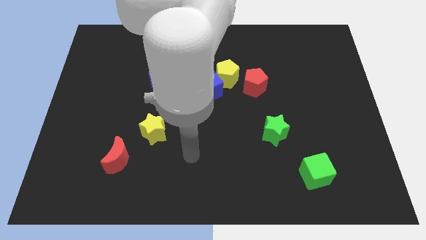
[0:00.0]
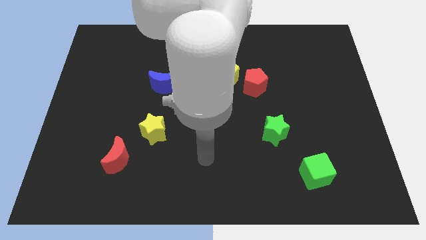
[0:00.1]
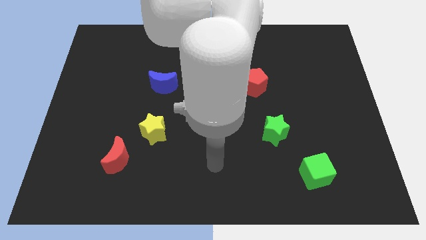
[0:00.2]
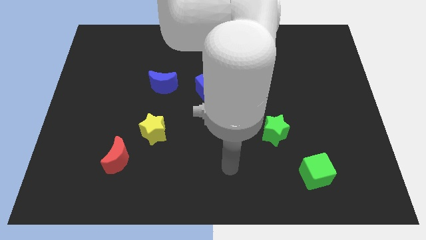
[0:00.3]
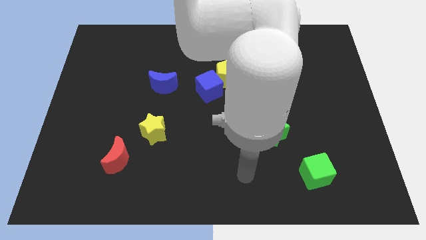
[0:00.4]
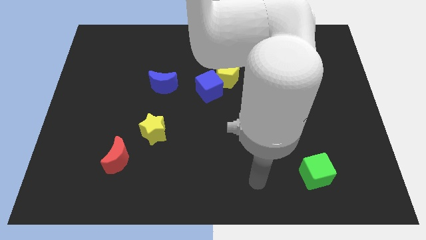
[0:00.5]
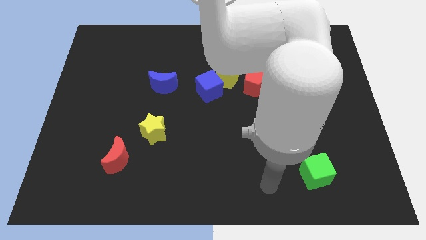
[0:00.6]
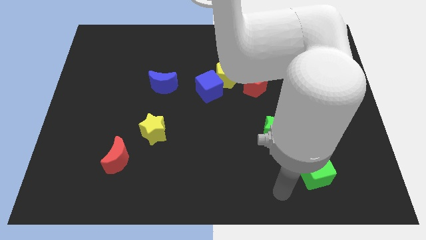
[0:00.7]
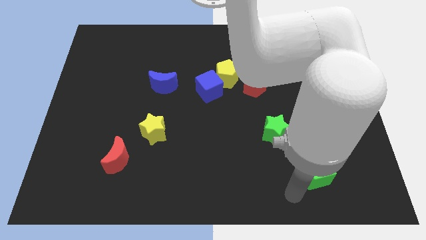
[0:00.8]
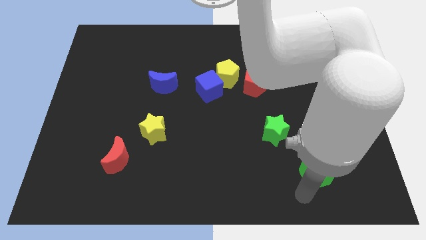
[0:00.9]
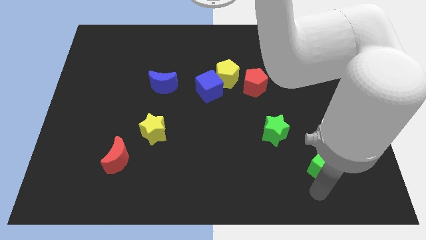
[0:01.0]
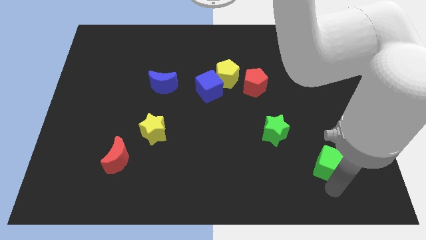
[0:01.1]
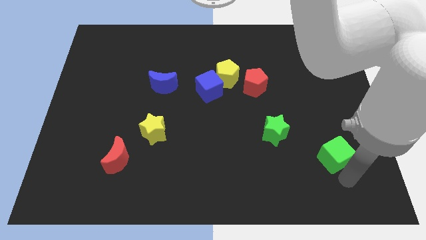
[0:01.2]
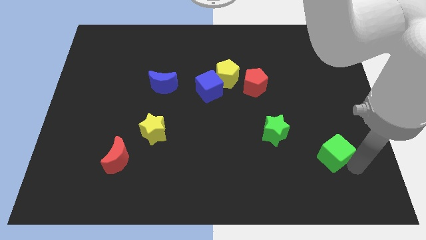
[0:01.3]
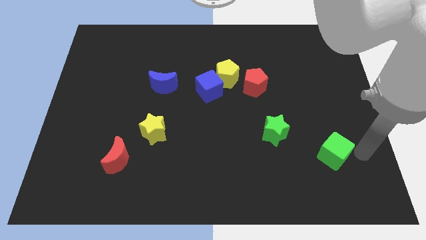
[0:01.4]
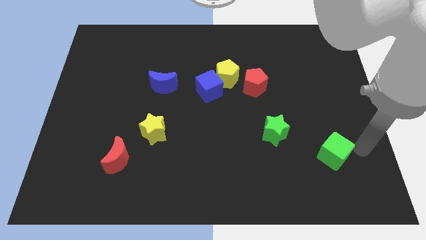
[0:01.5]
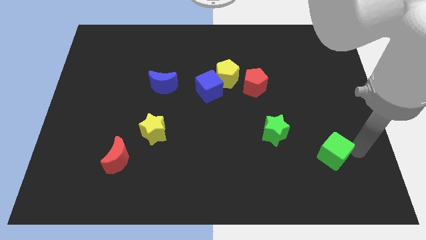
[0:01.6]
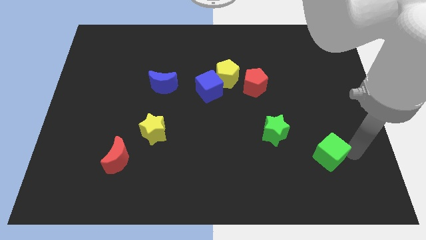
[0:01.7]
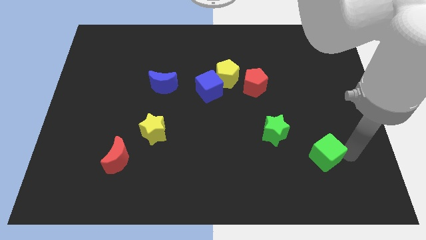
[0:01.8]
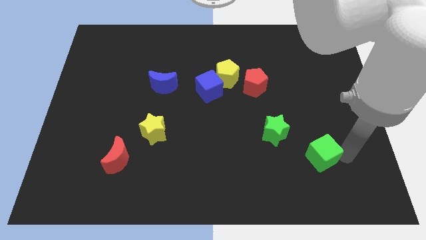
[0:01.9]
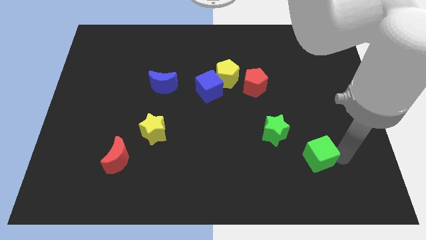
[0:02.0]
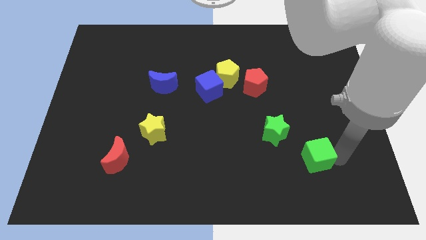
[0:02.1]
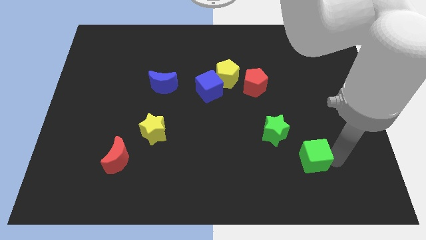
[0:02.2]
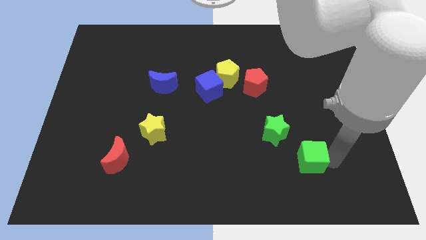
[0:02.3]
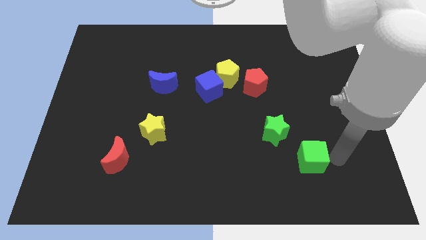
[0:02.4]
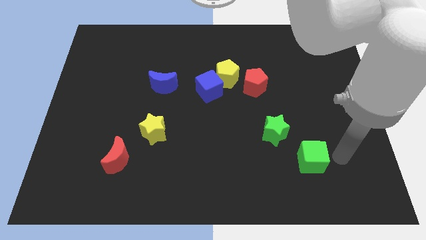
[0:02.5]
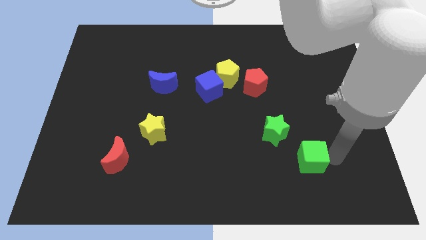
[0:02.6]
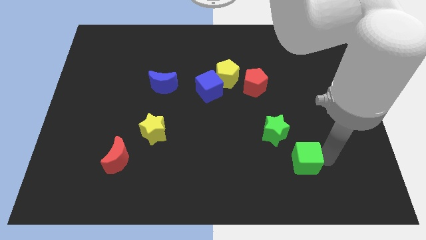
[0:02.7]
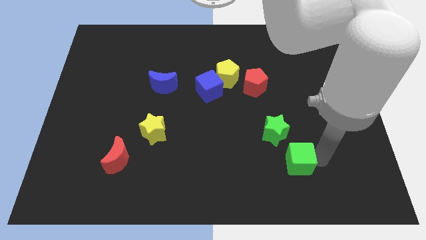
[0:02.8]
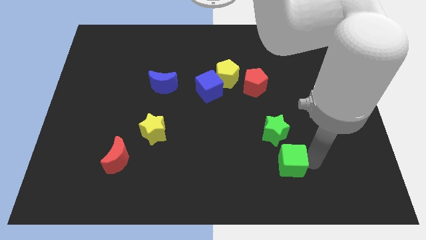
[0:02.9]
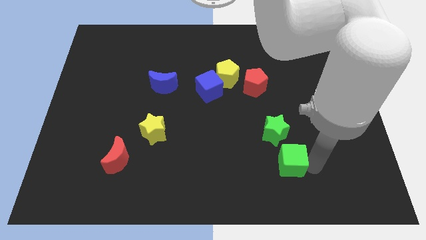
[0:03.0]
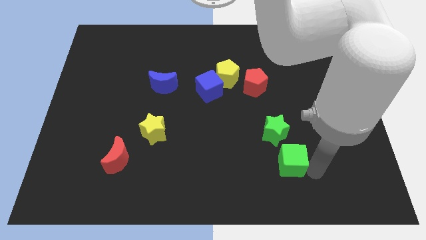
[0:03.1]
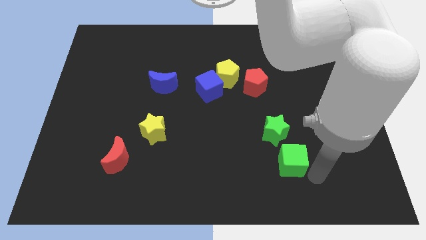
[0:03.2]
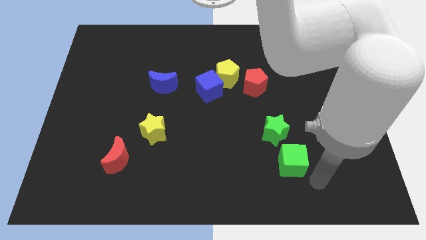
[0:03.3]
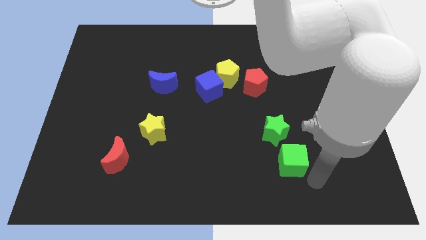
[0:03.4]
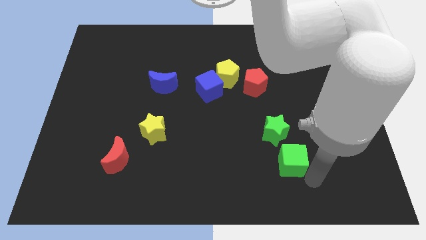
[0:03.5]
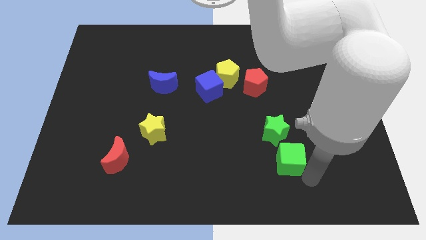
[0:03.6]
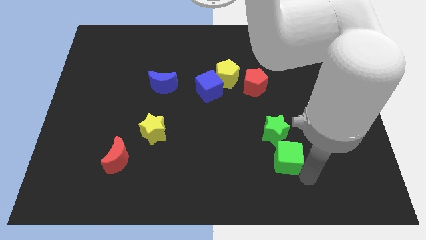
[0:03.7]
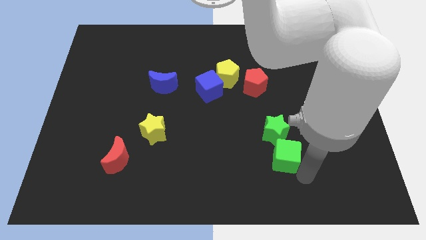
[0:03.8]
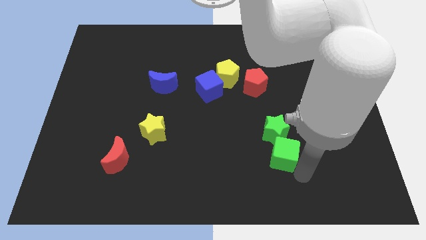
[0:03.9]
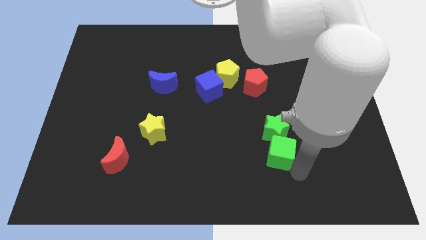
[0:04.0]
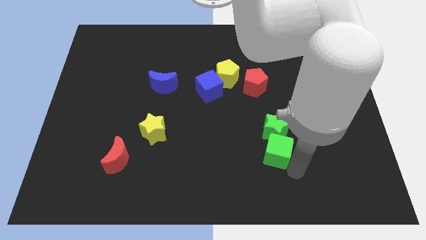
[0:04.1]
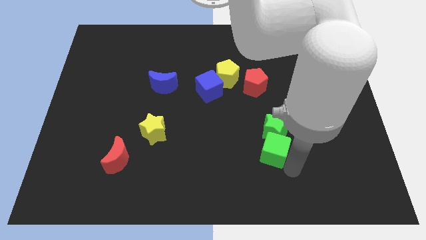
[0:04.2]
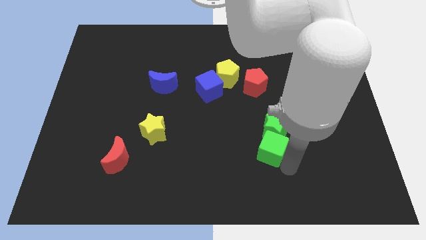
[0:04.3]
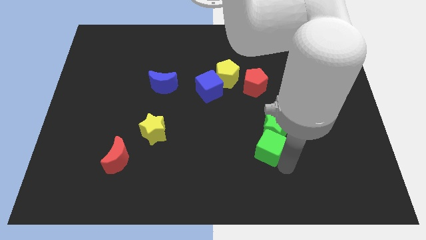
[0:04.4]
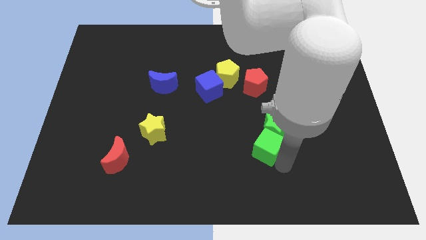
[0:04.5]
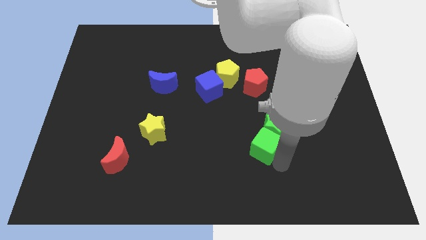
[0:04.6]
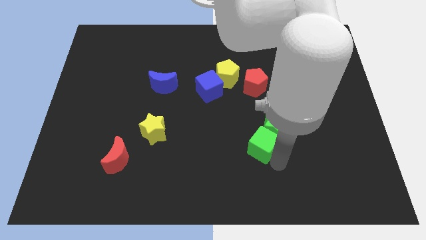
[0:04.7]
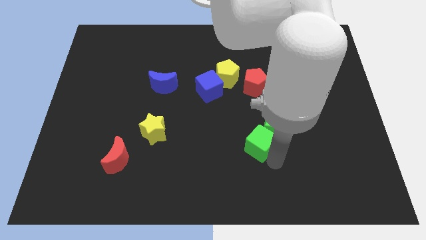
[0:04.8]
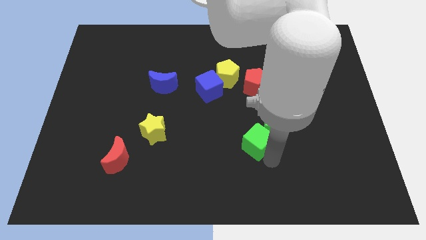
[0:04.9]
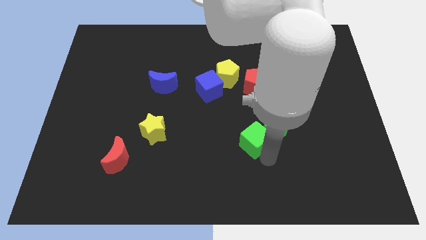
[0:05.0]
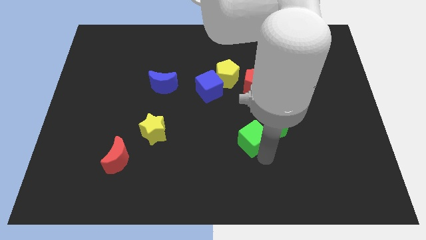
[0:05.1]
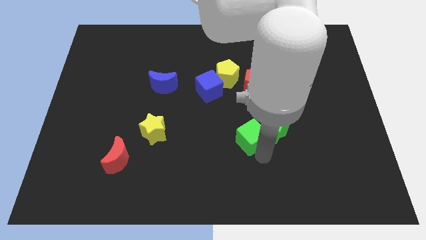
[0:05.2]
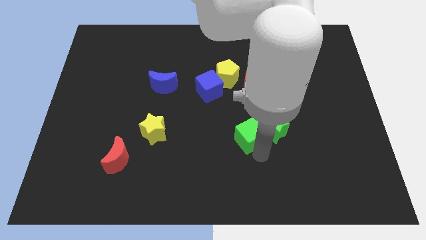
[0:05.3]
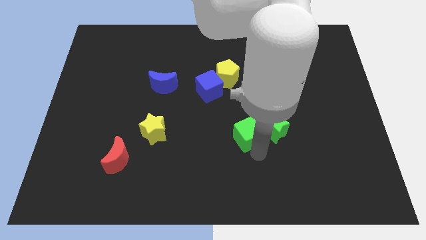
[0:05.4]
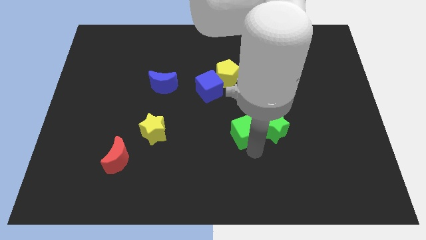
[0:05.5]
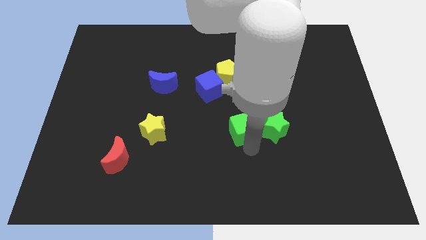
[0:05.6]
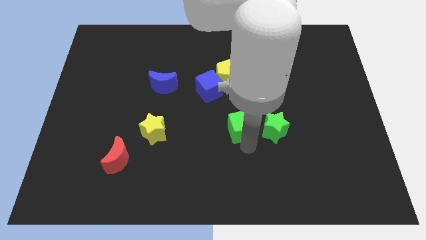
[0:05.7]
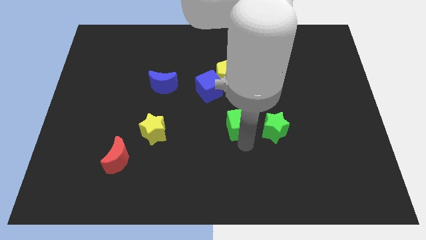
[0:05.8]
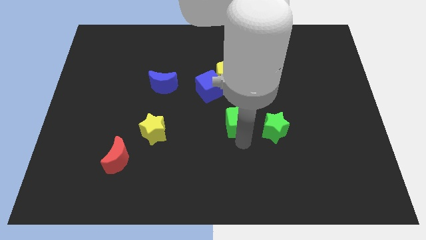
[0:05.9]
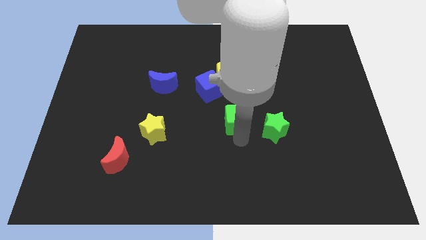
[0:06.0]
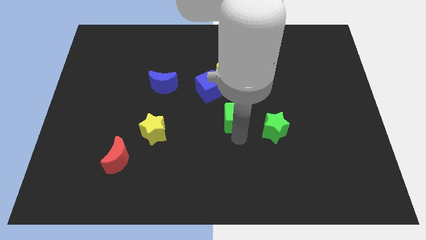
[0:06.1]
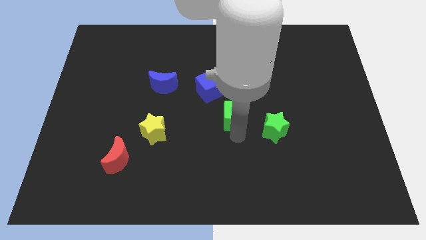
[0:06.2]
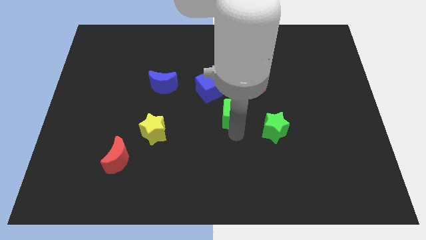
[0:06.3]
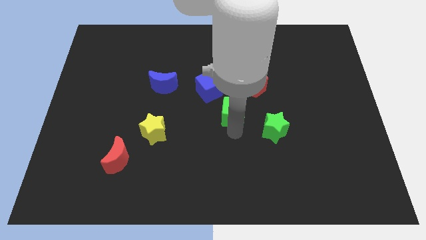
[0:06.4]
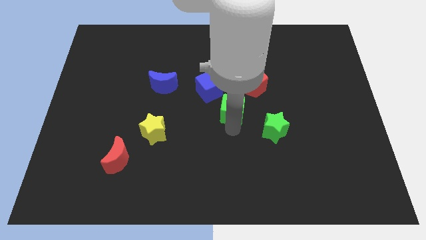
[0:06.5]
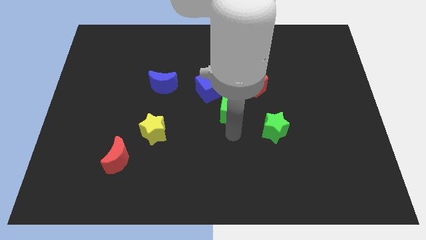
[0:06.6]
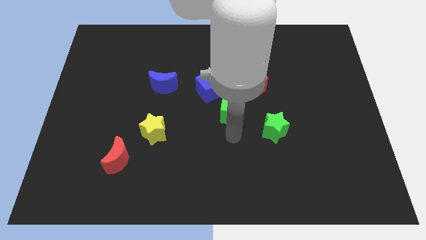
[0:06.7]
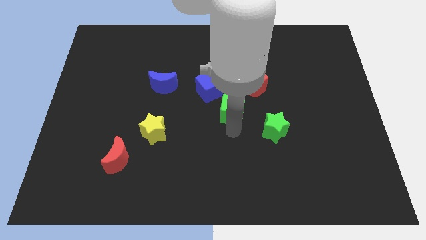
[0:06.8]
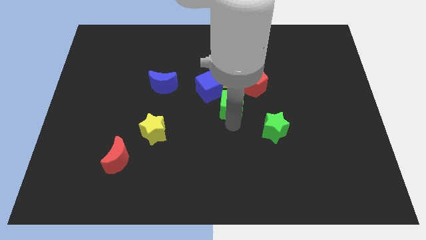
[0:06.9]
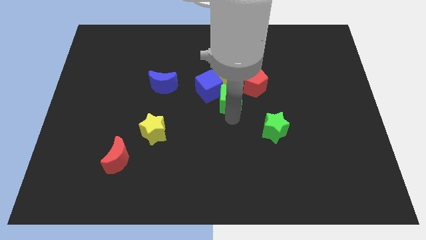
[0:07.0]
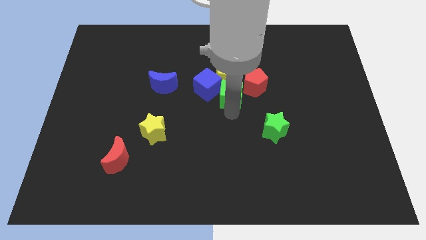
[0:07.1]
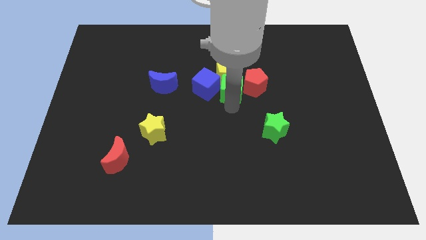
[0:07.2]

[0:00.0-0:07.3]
push the green cube to the yellow pentagon

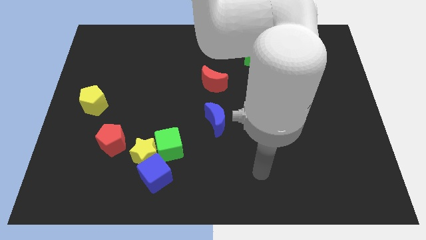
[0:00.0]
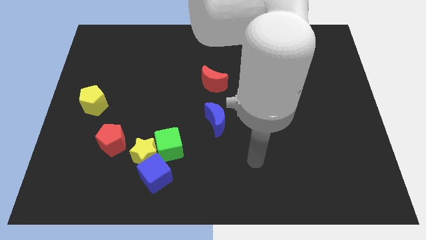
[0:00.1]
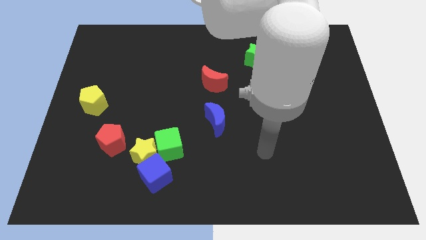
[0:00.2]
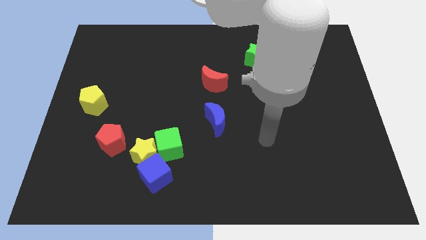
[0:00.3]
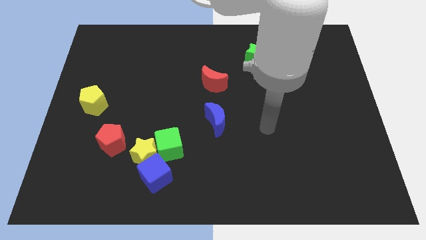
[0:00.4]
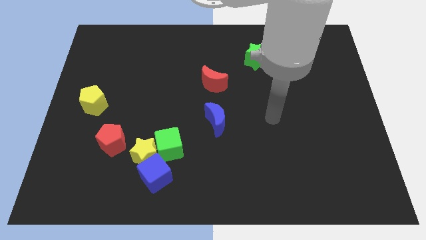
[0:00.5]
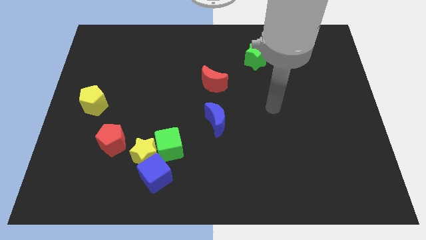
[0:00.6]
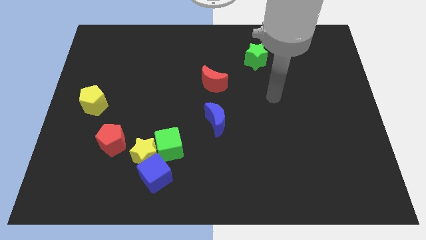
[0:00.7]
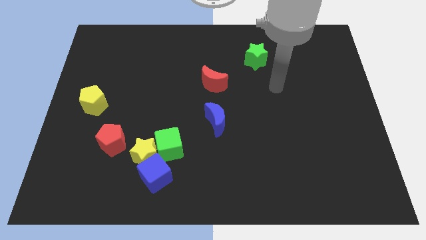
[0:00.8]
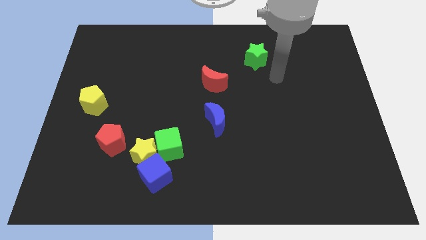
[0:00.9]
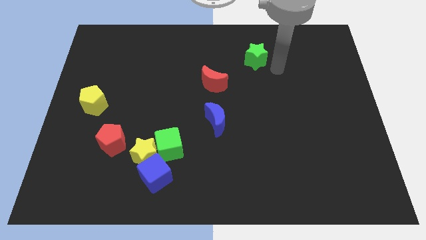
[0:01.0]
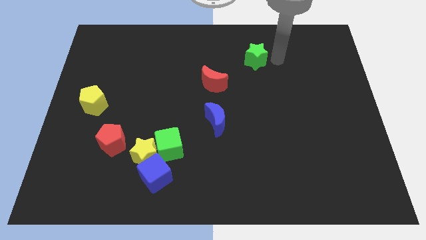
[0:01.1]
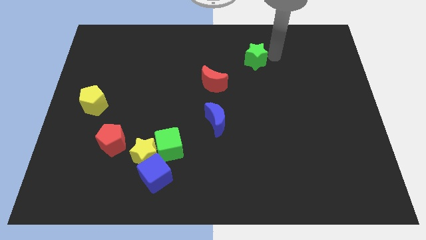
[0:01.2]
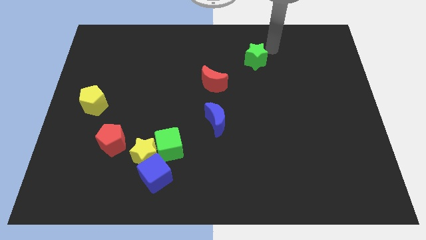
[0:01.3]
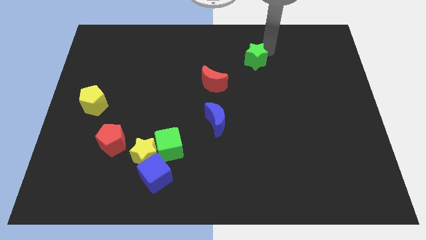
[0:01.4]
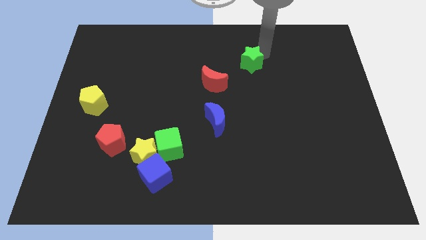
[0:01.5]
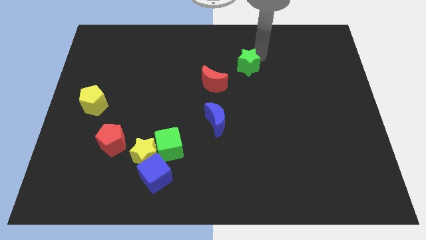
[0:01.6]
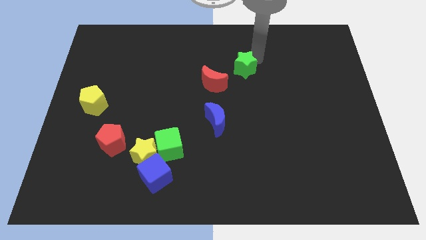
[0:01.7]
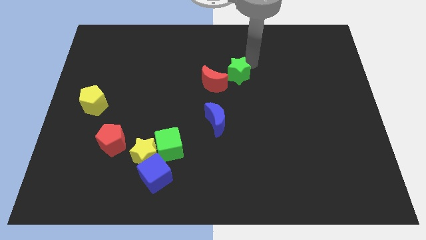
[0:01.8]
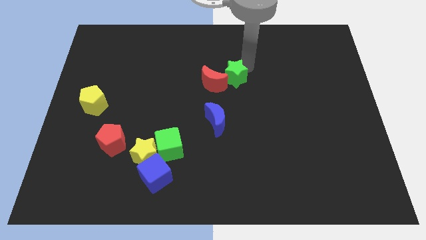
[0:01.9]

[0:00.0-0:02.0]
push the green star next to the red moon
